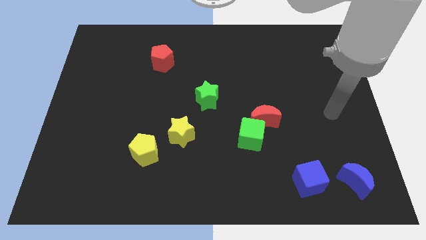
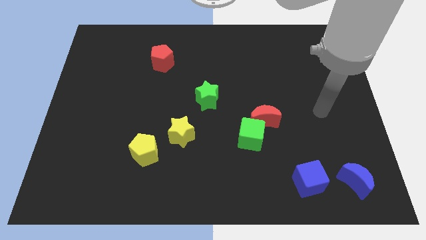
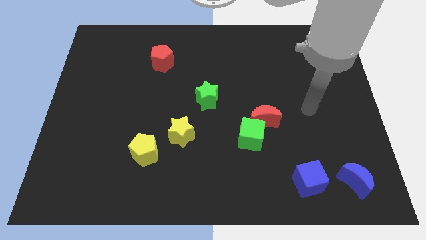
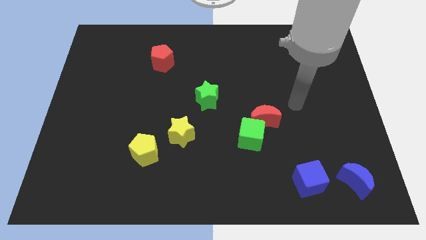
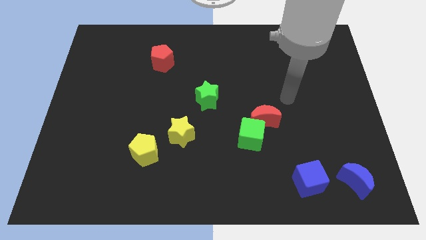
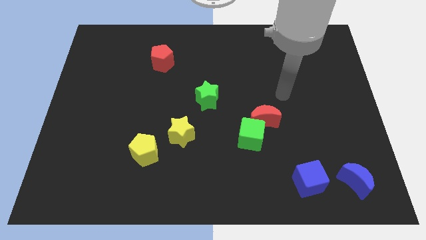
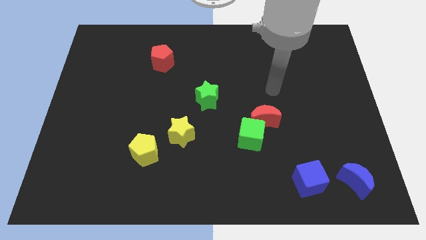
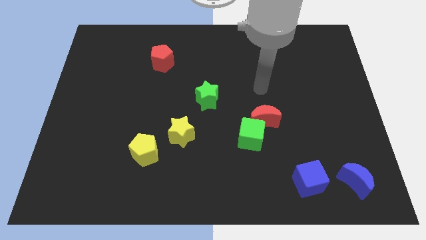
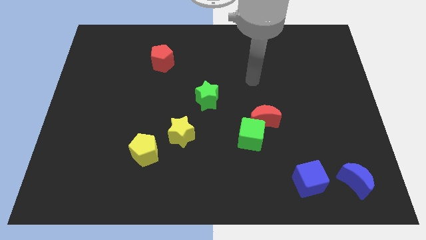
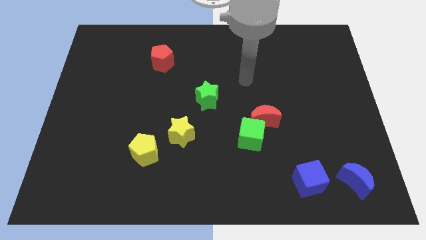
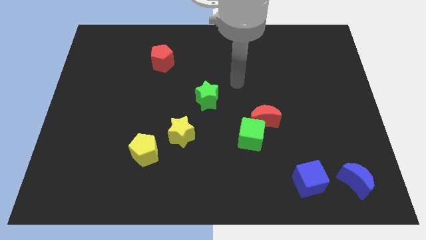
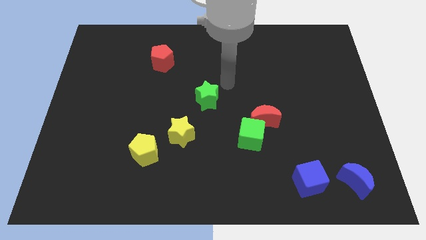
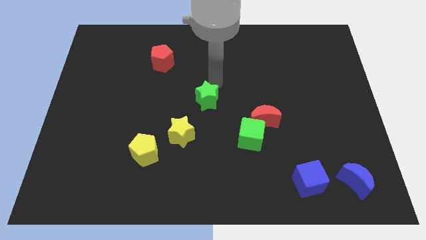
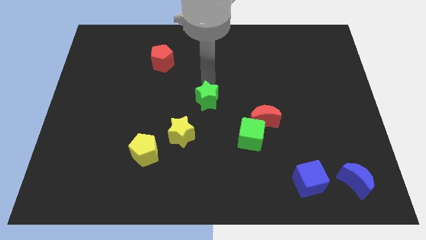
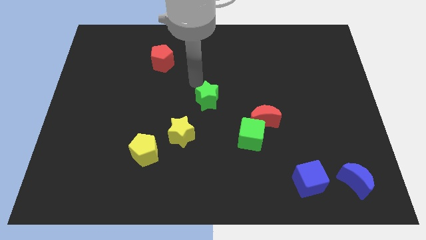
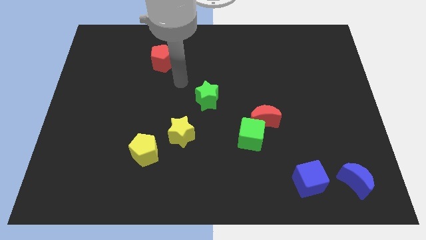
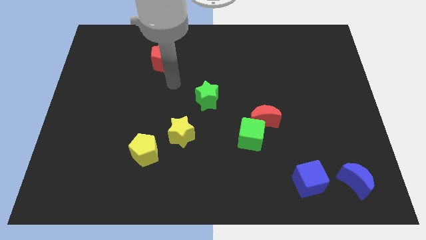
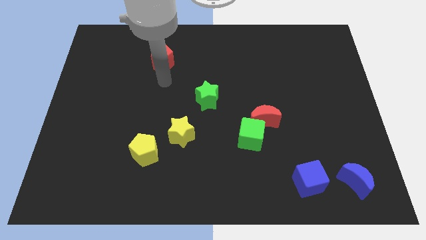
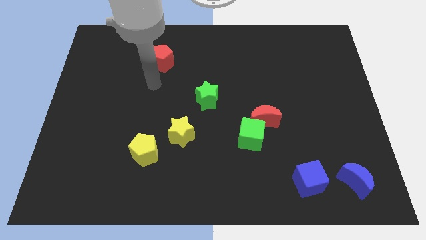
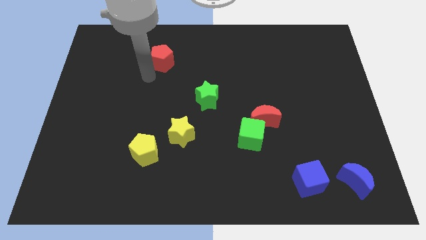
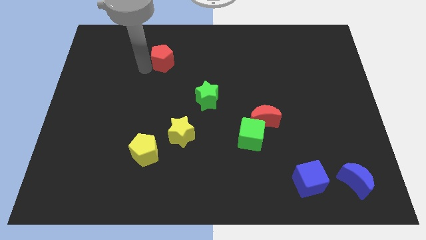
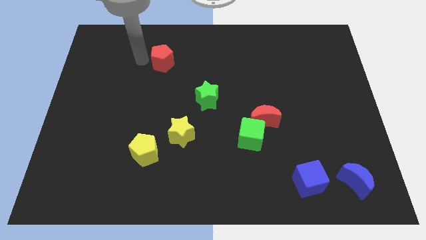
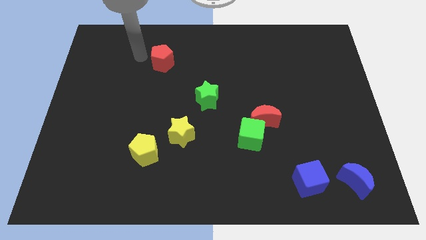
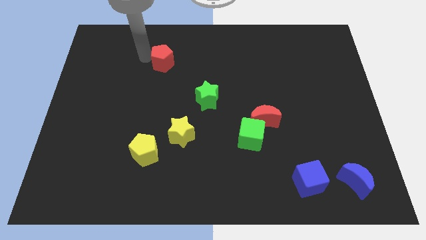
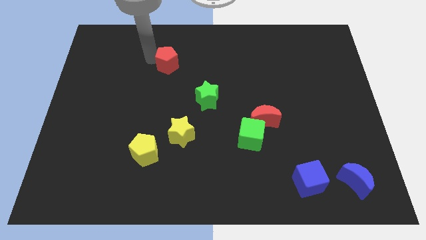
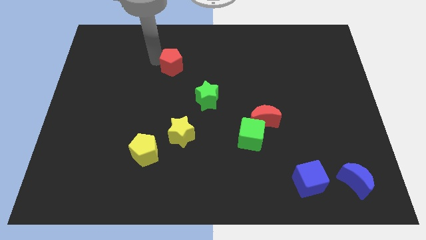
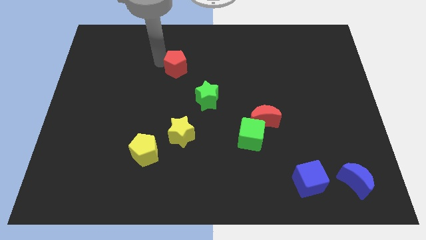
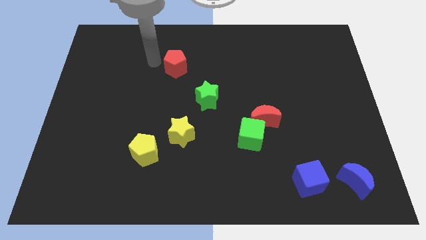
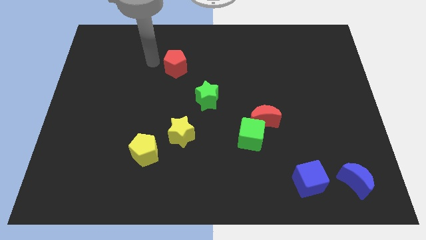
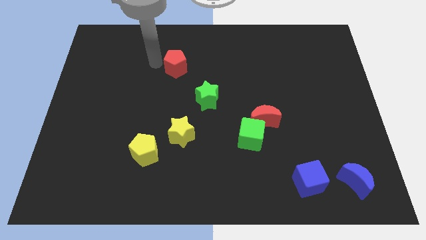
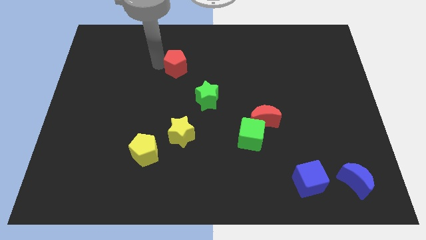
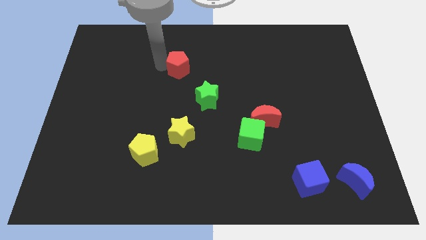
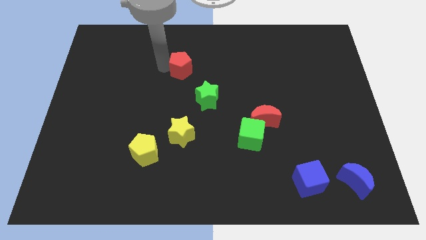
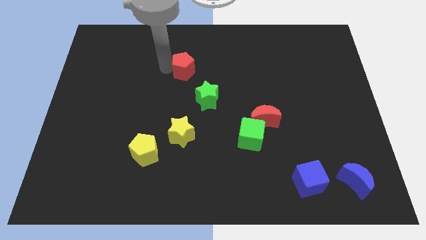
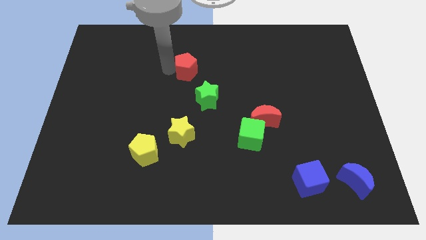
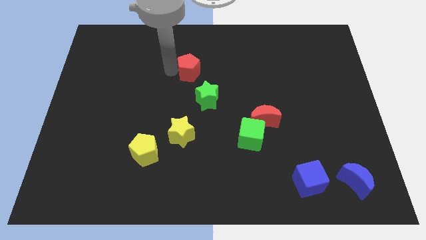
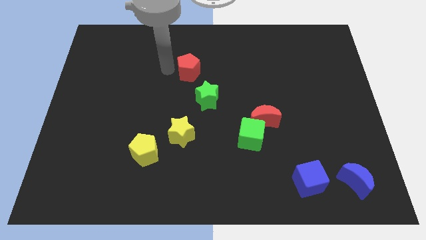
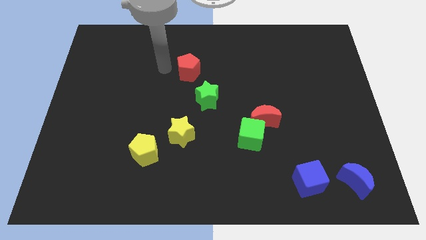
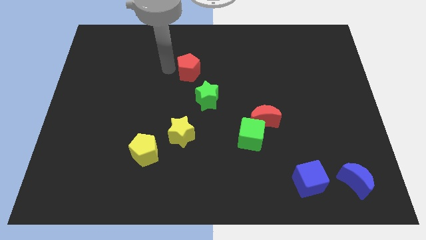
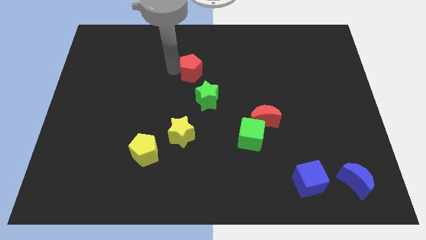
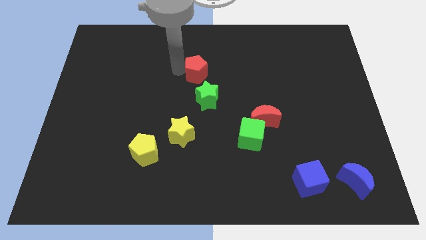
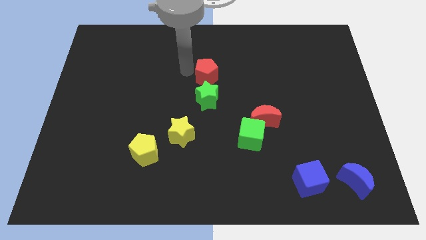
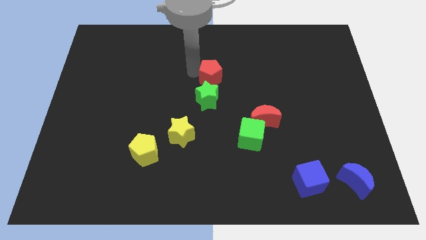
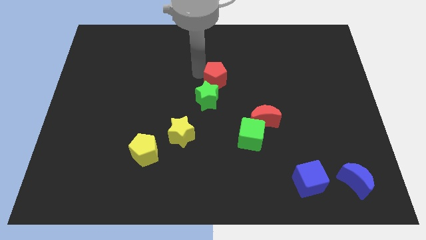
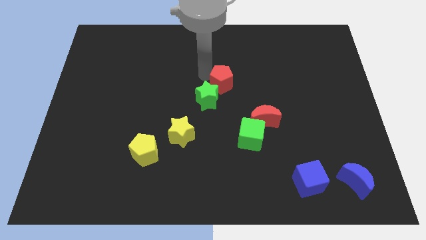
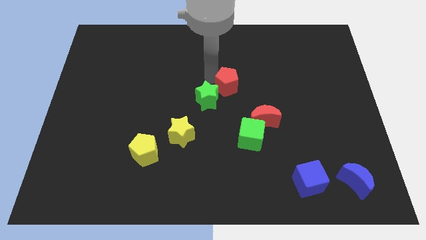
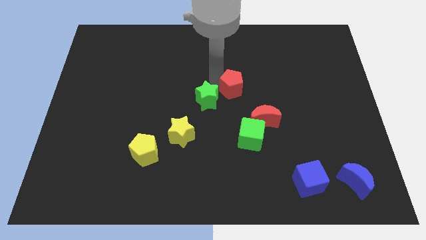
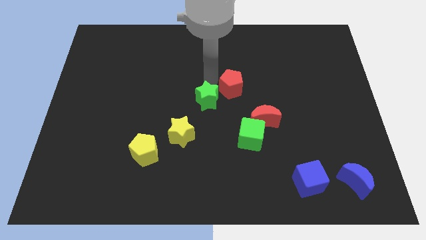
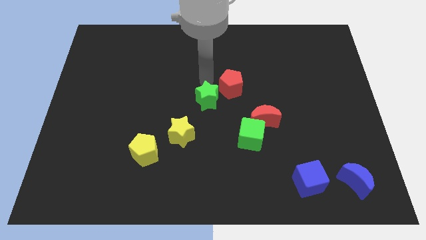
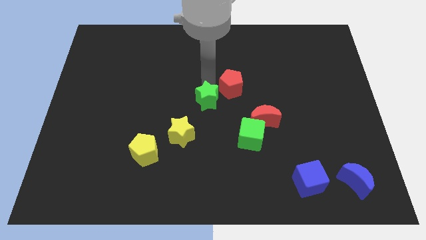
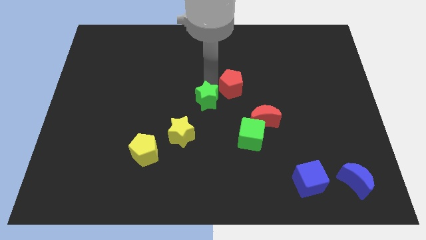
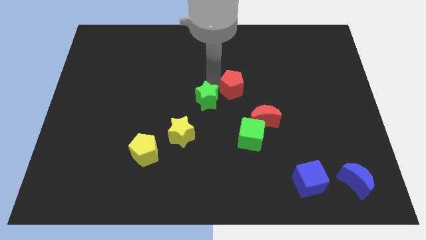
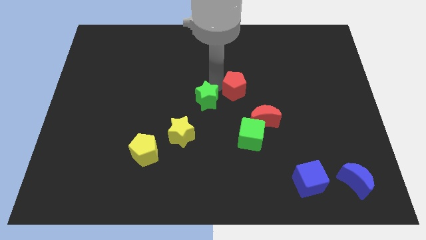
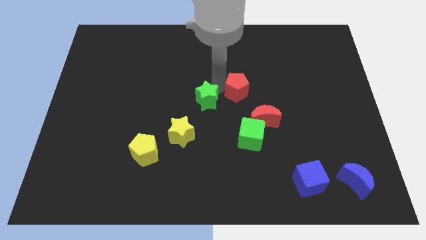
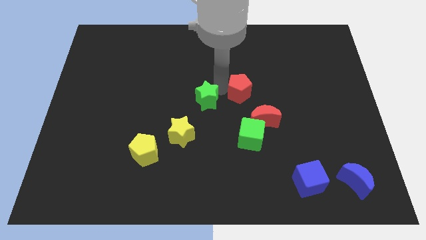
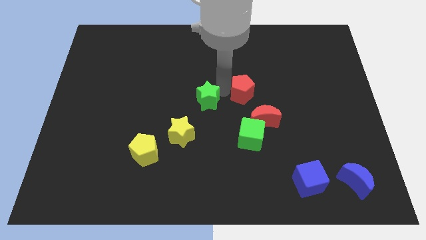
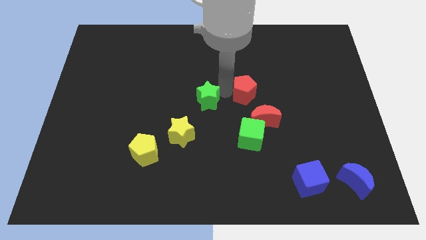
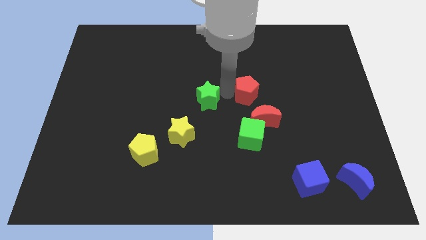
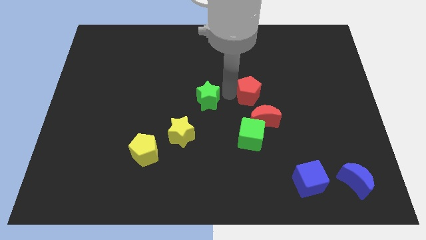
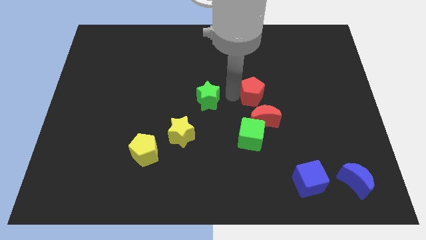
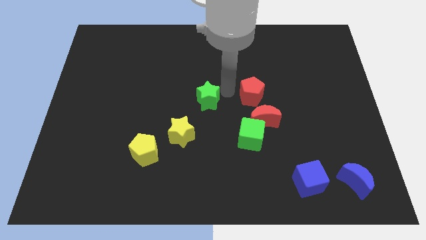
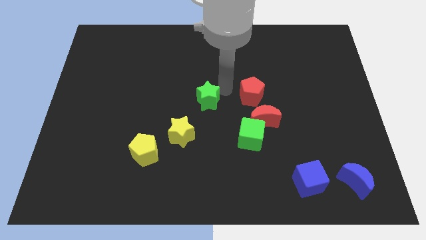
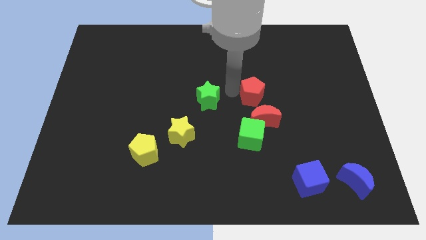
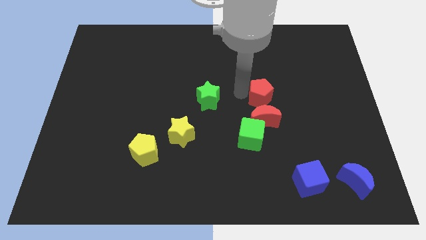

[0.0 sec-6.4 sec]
move the red pentagon to the top right of the red moon

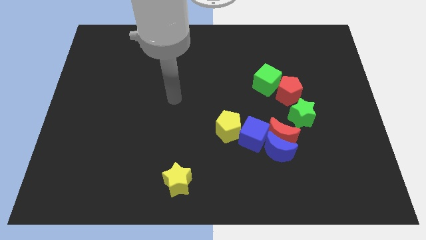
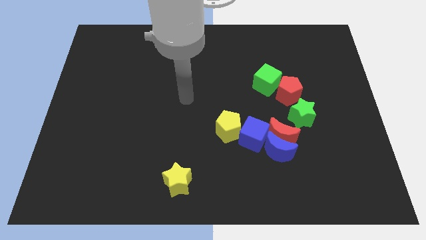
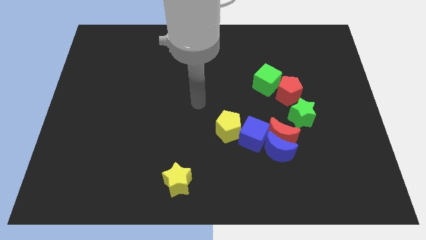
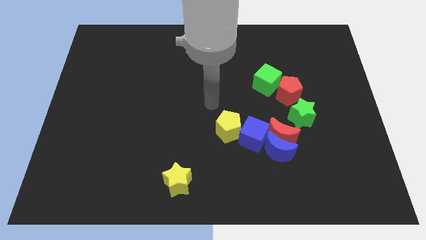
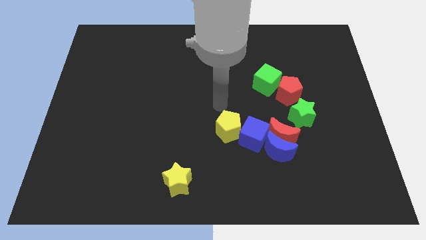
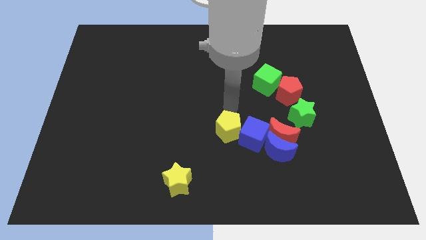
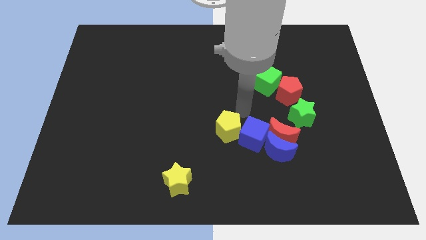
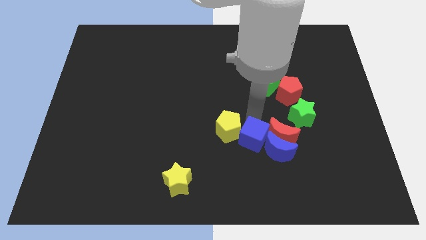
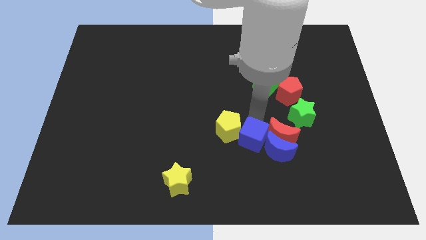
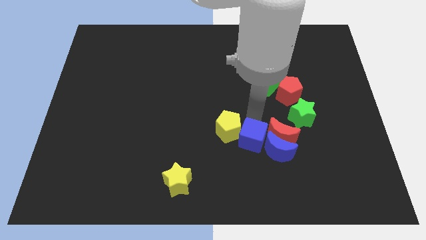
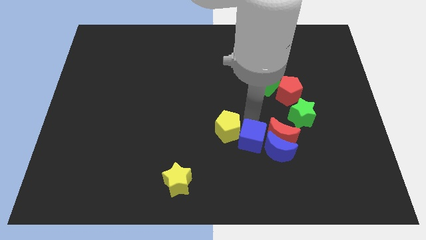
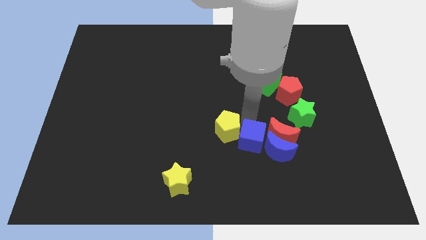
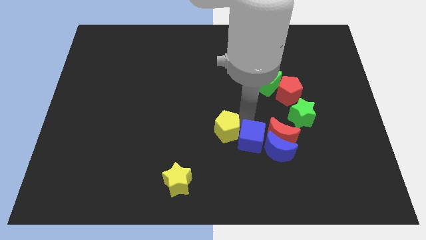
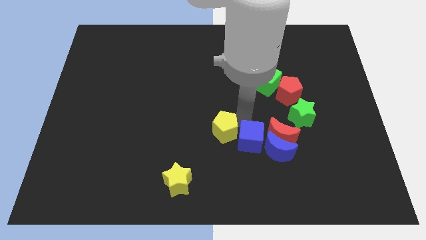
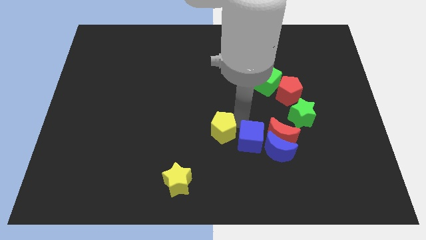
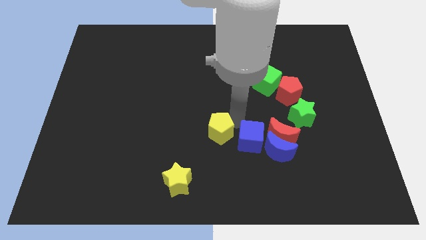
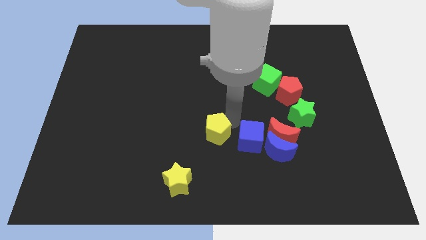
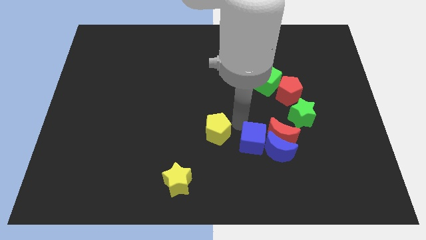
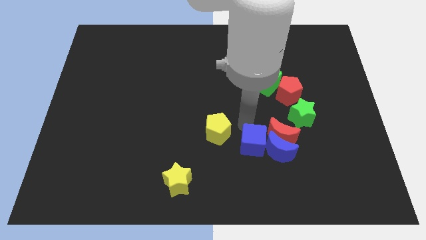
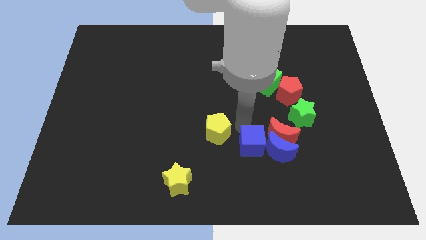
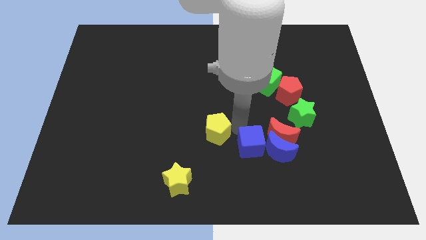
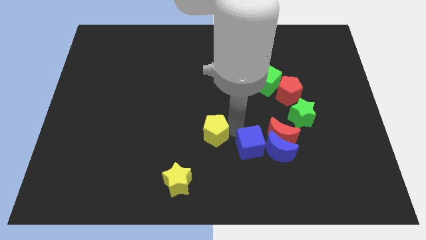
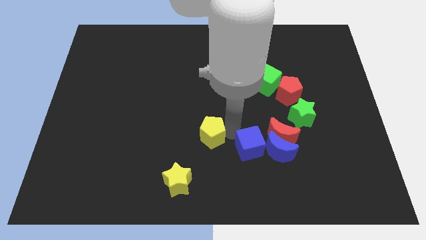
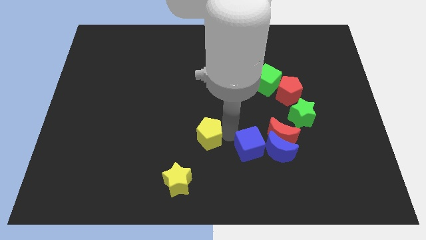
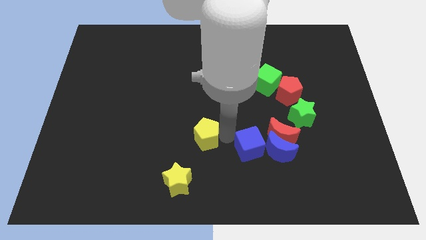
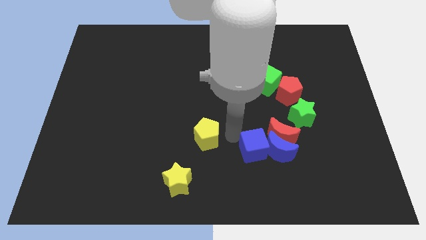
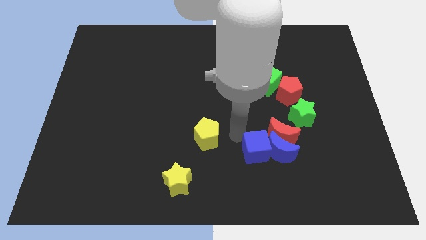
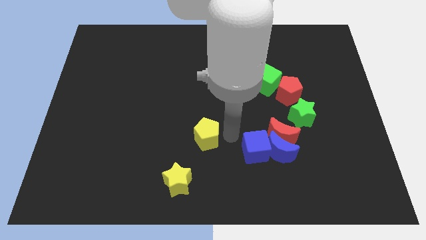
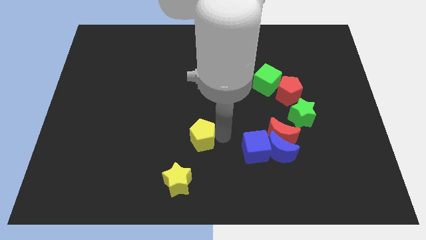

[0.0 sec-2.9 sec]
put the yellow pentagon to the top side of the yellow star
